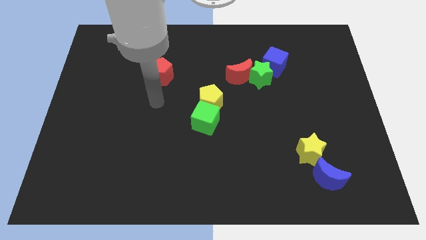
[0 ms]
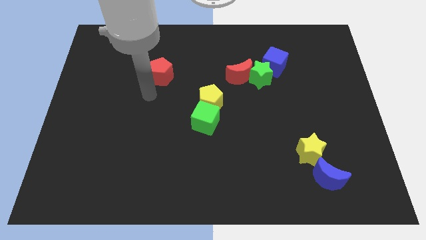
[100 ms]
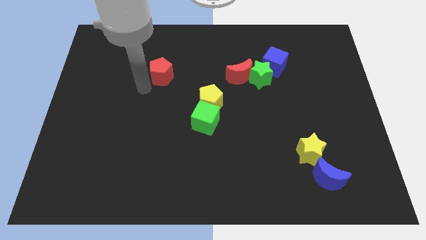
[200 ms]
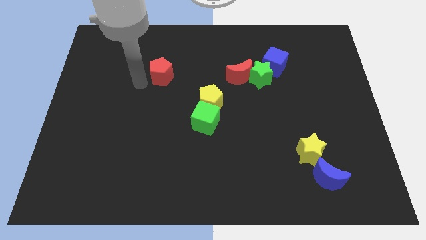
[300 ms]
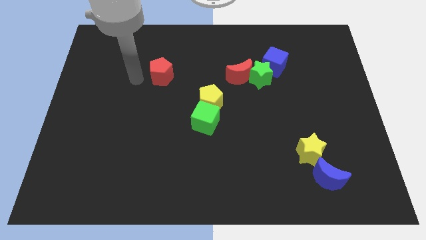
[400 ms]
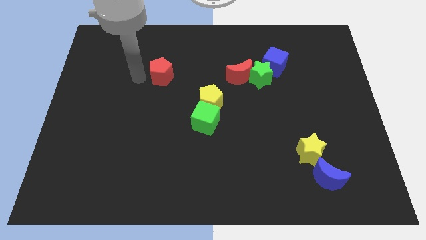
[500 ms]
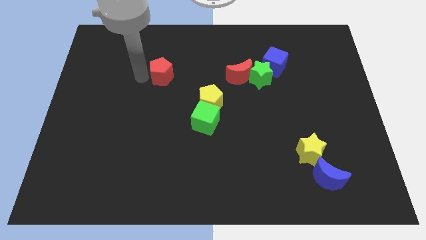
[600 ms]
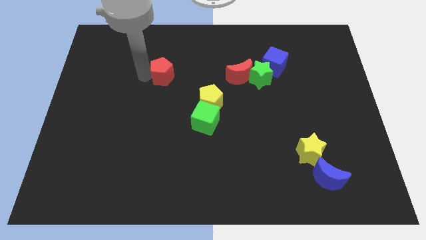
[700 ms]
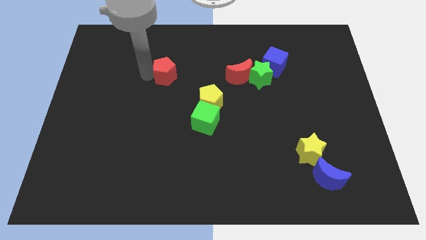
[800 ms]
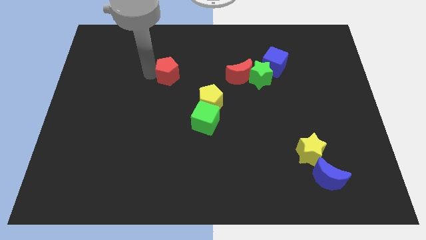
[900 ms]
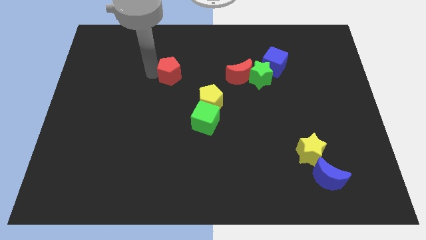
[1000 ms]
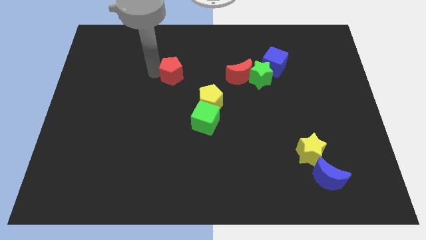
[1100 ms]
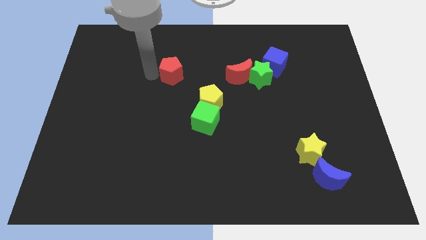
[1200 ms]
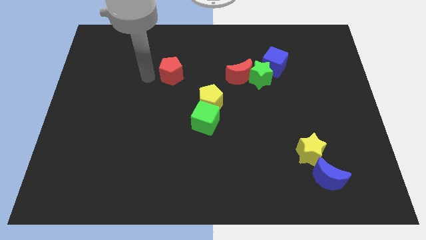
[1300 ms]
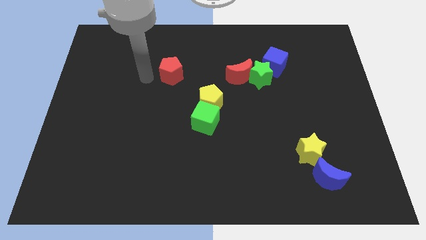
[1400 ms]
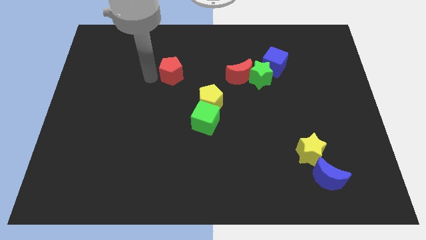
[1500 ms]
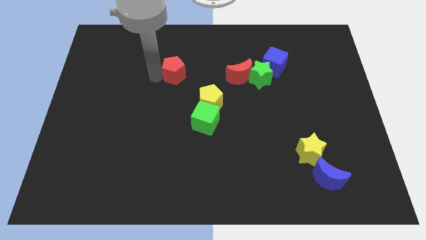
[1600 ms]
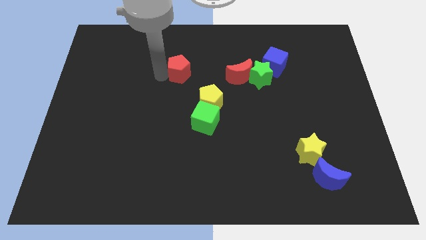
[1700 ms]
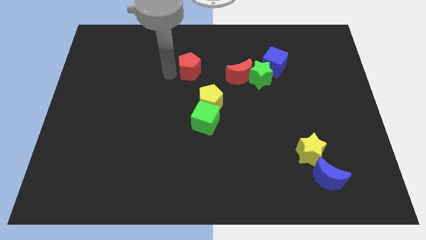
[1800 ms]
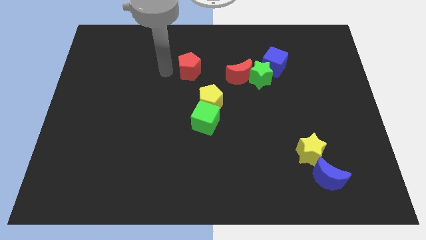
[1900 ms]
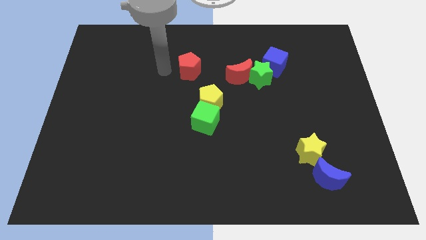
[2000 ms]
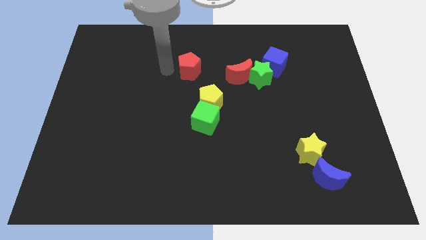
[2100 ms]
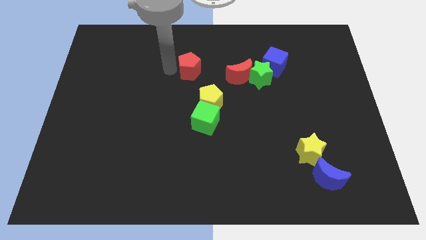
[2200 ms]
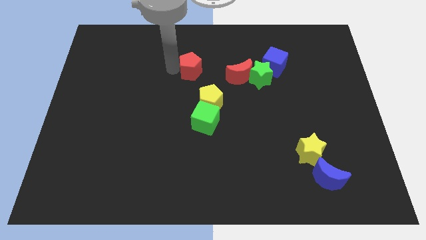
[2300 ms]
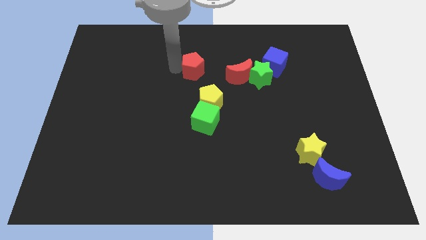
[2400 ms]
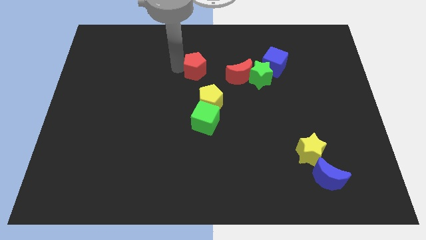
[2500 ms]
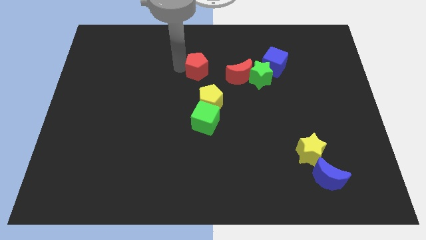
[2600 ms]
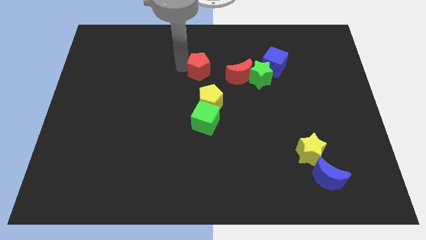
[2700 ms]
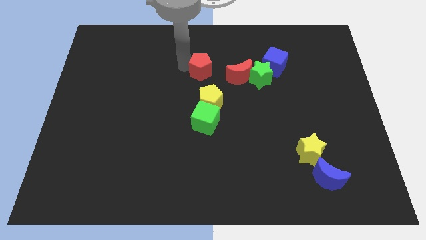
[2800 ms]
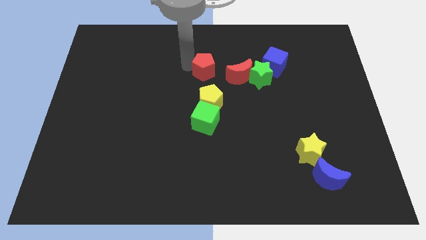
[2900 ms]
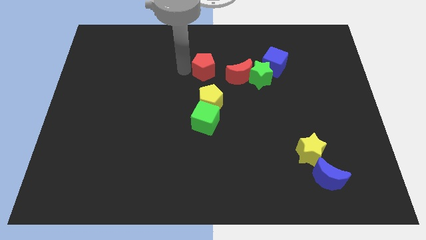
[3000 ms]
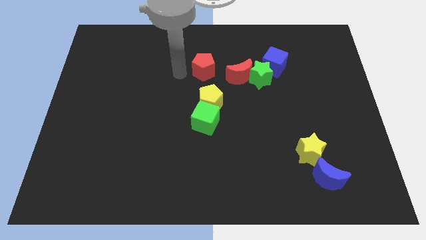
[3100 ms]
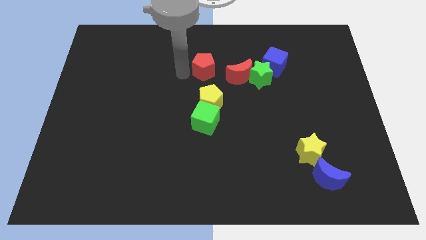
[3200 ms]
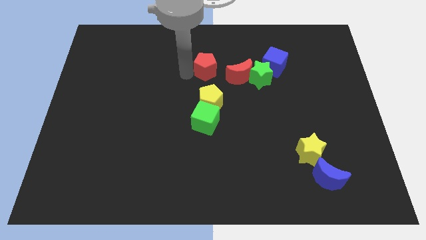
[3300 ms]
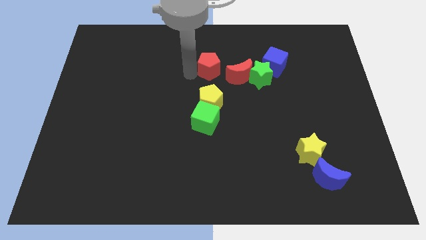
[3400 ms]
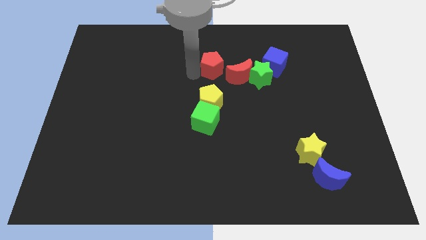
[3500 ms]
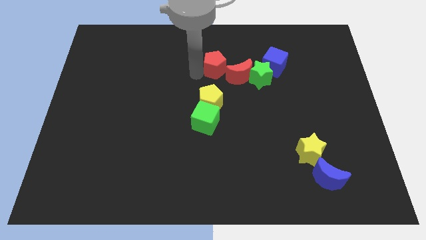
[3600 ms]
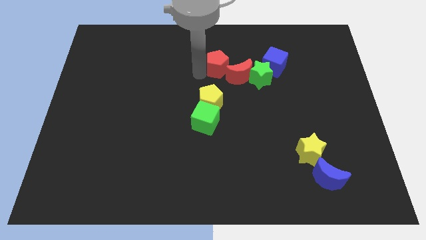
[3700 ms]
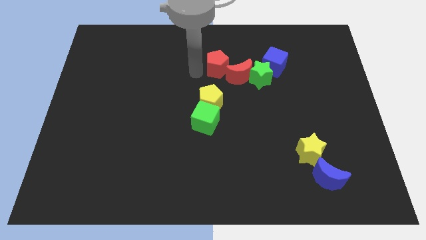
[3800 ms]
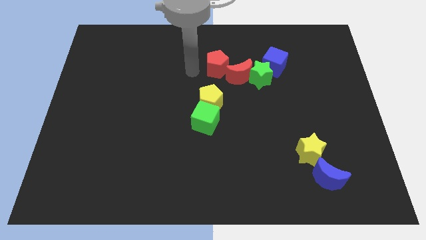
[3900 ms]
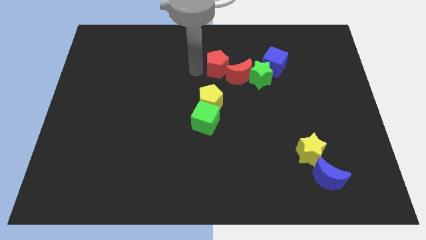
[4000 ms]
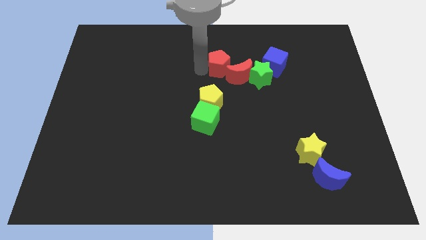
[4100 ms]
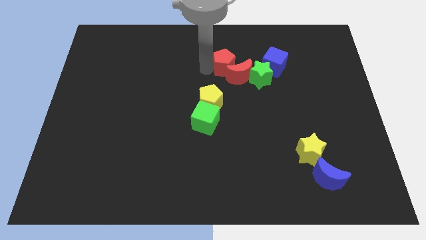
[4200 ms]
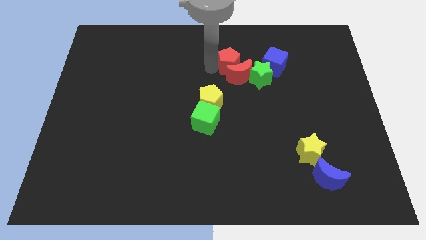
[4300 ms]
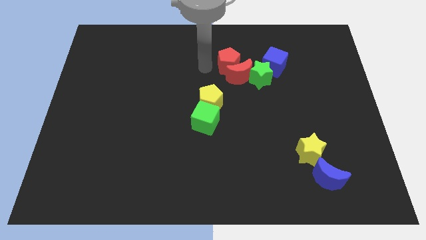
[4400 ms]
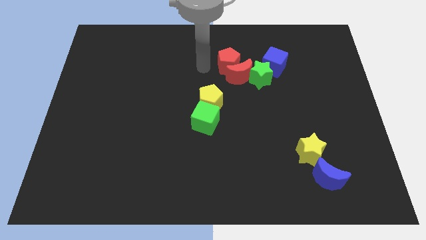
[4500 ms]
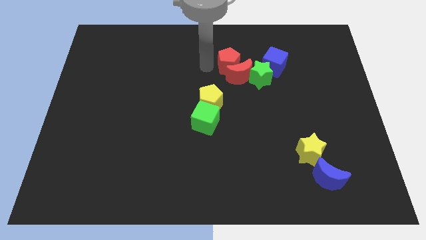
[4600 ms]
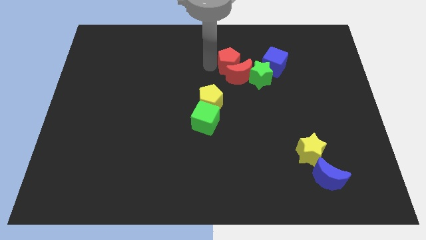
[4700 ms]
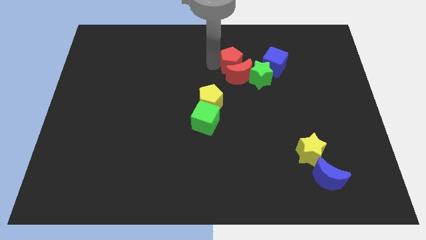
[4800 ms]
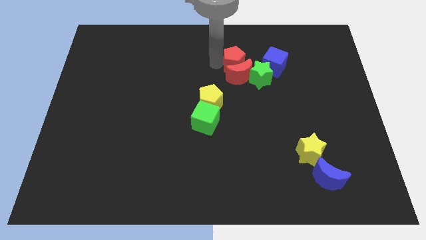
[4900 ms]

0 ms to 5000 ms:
slide the red pentagon to the top right of the red moon

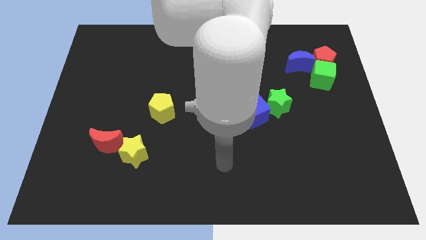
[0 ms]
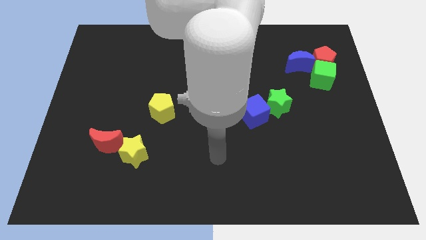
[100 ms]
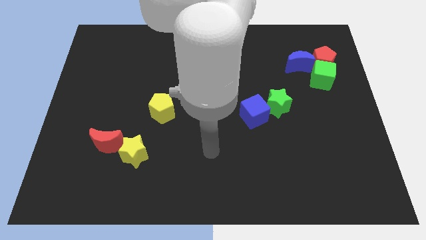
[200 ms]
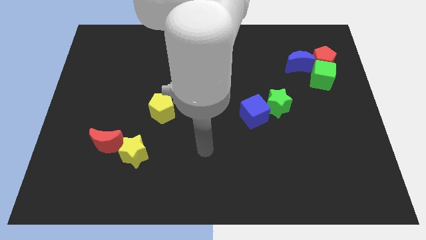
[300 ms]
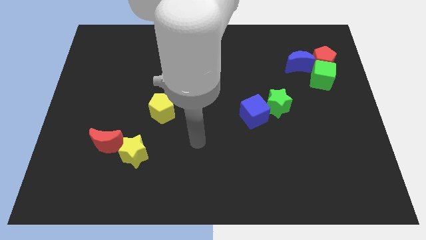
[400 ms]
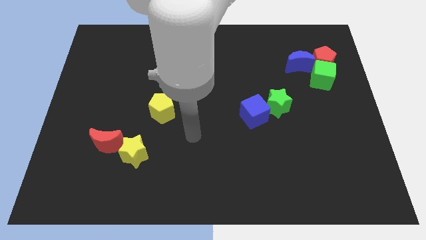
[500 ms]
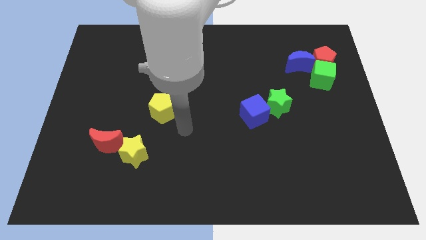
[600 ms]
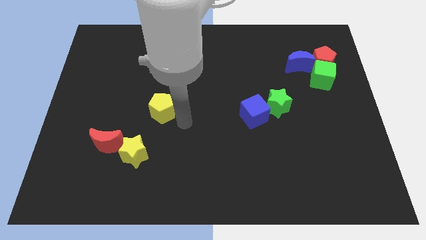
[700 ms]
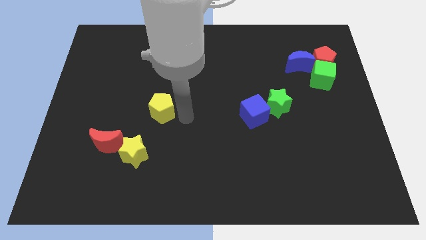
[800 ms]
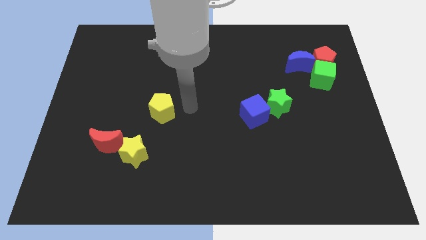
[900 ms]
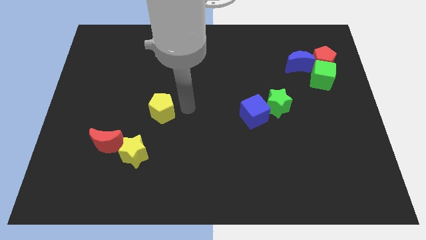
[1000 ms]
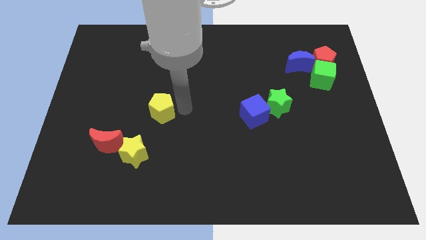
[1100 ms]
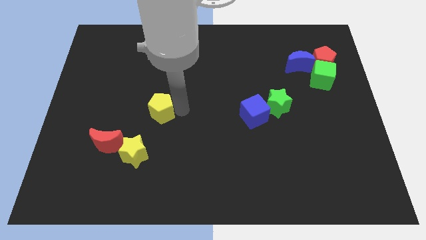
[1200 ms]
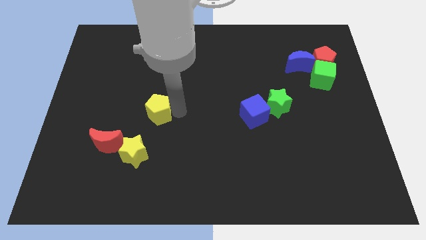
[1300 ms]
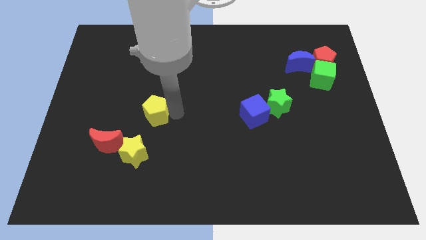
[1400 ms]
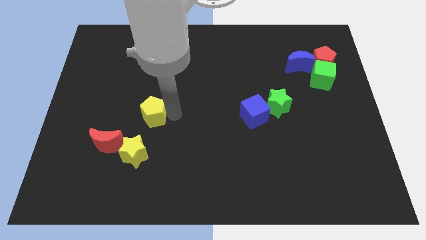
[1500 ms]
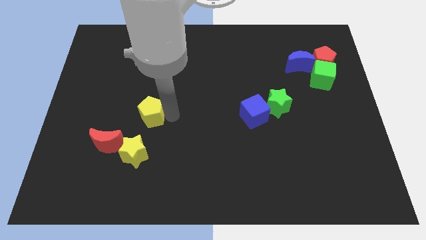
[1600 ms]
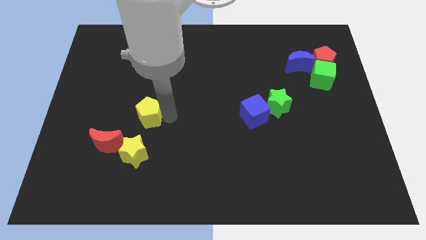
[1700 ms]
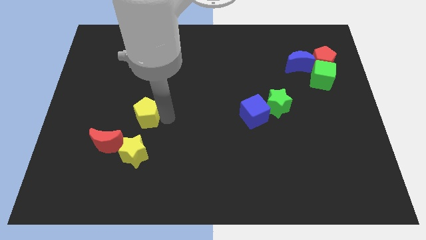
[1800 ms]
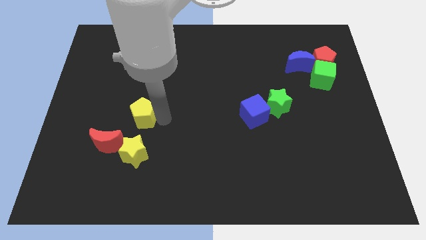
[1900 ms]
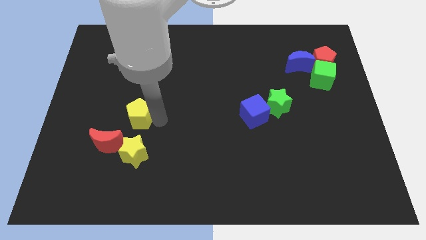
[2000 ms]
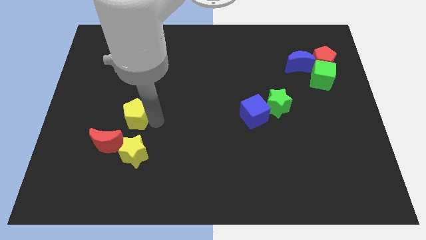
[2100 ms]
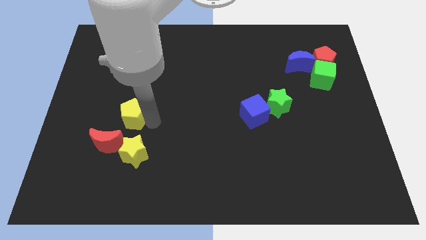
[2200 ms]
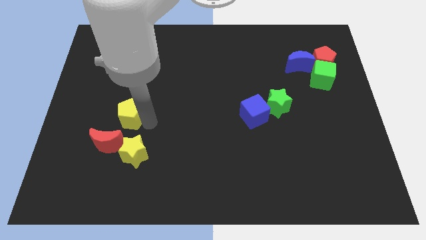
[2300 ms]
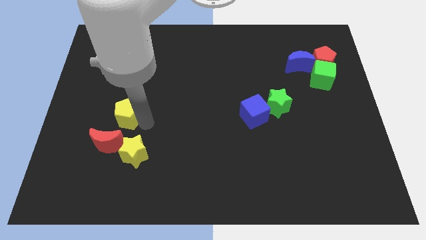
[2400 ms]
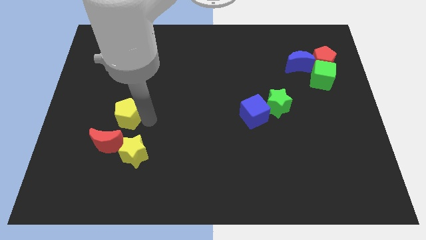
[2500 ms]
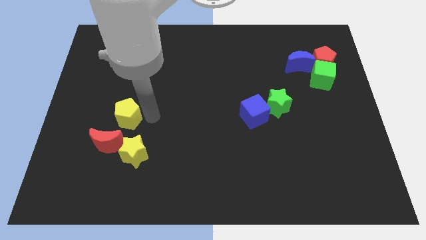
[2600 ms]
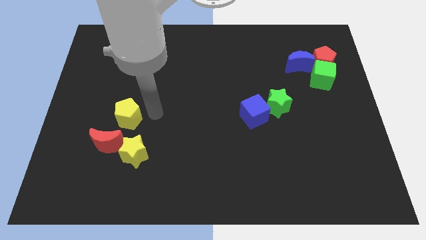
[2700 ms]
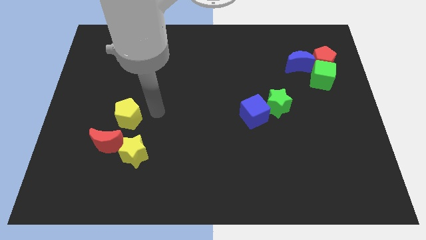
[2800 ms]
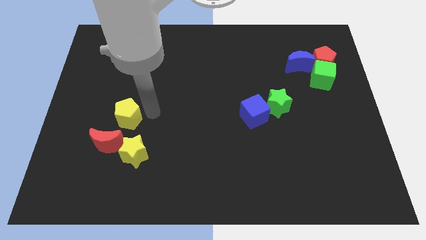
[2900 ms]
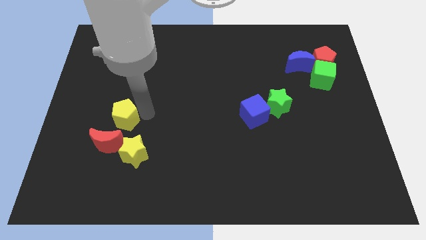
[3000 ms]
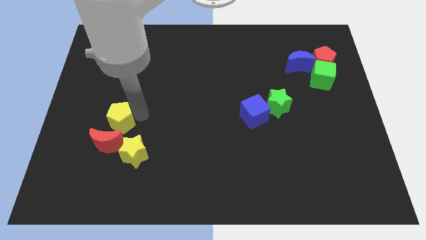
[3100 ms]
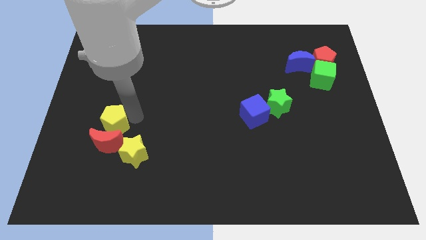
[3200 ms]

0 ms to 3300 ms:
push the yellow pentagon diagonally up and to the left of the red moon

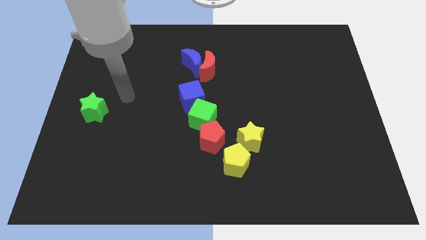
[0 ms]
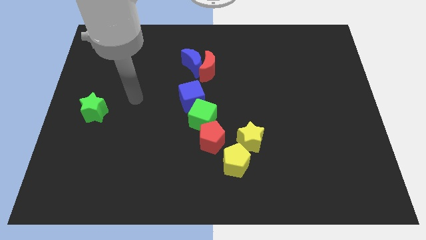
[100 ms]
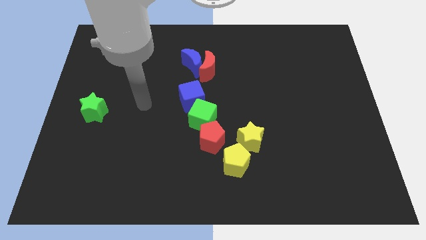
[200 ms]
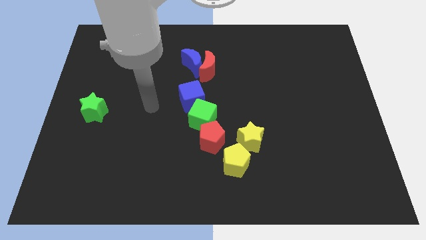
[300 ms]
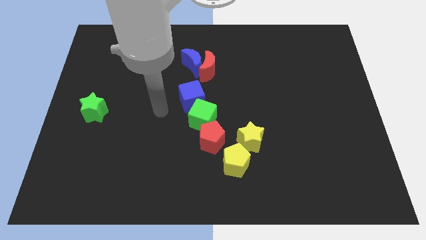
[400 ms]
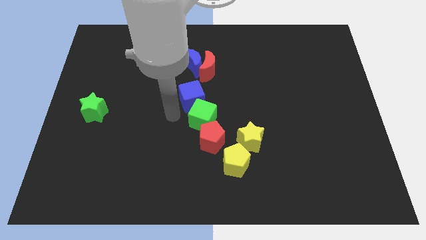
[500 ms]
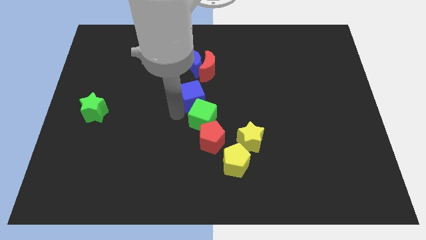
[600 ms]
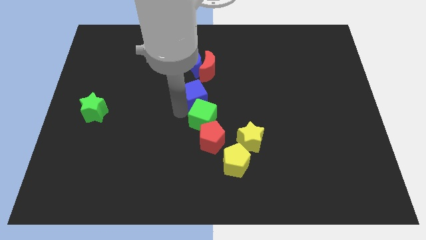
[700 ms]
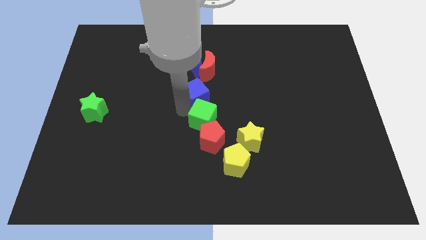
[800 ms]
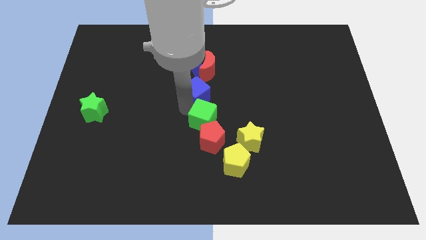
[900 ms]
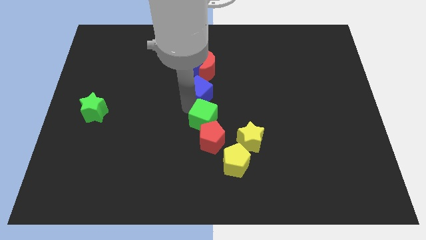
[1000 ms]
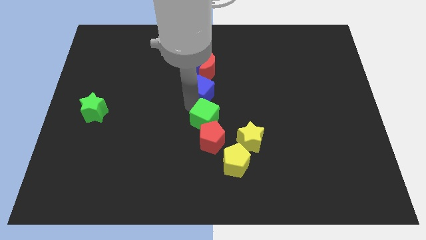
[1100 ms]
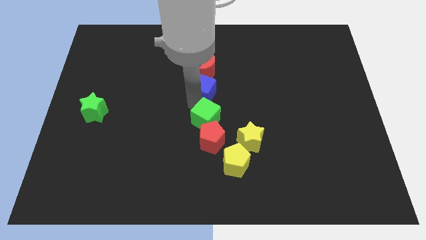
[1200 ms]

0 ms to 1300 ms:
put the blue cube to the bottom right of the blue moon
